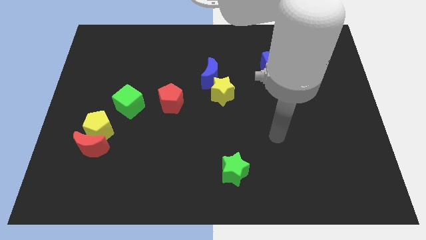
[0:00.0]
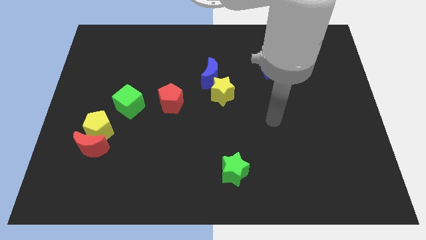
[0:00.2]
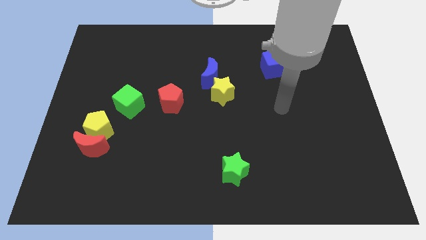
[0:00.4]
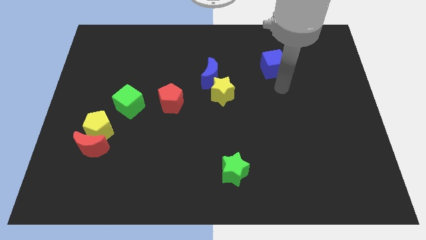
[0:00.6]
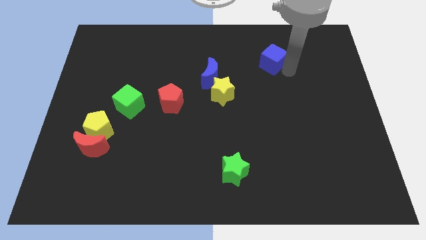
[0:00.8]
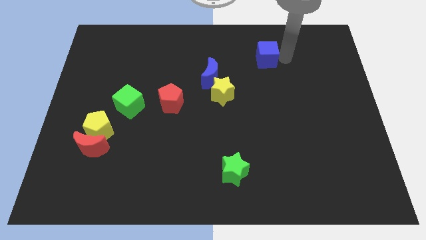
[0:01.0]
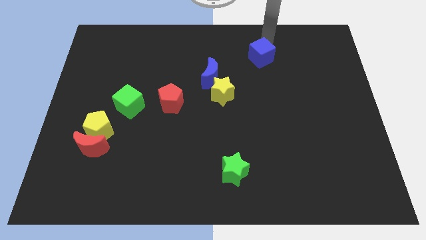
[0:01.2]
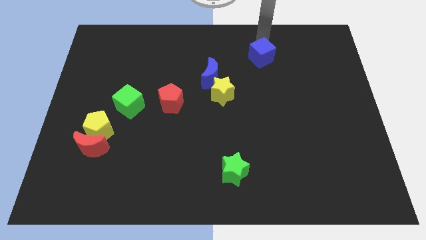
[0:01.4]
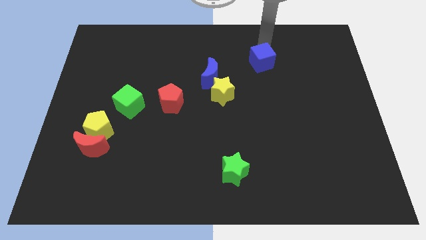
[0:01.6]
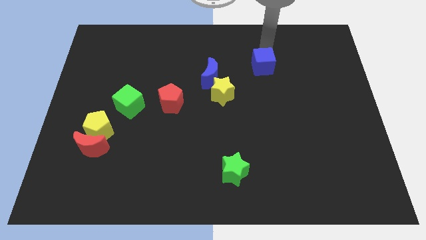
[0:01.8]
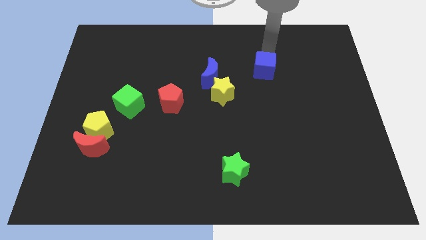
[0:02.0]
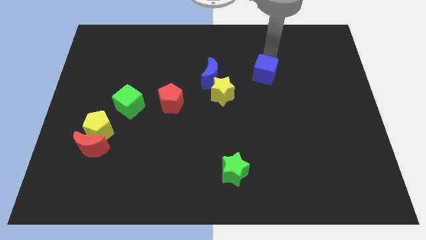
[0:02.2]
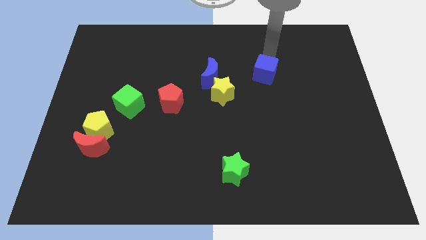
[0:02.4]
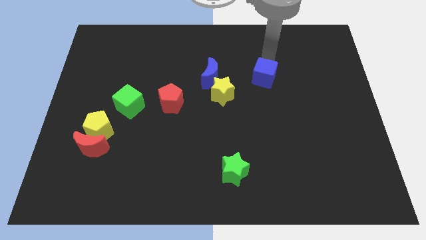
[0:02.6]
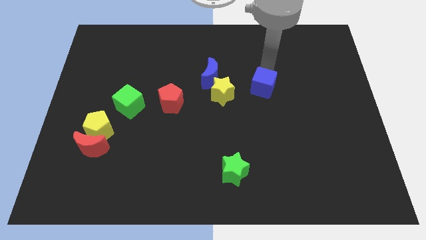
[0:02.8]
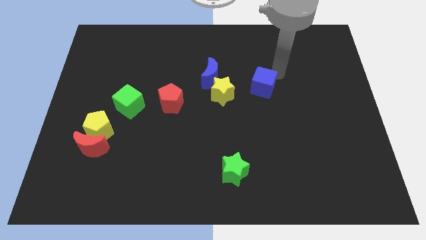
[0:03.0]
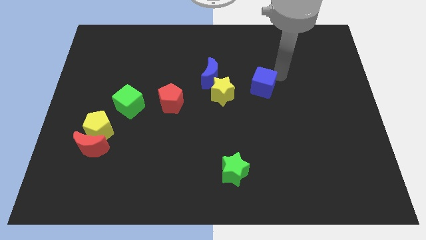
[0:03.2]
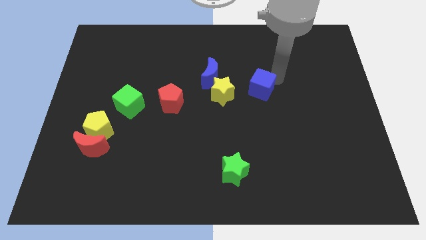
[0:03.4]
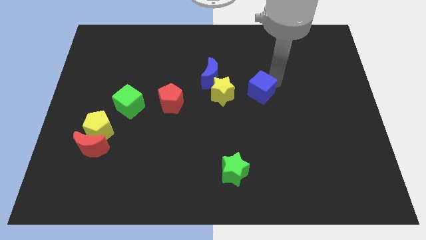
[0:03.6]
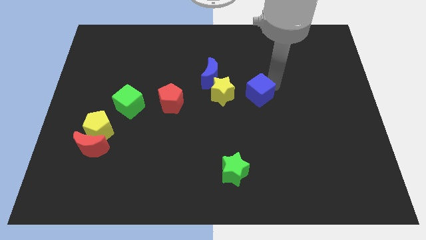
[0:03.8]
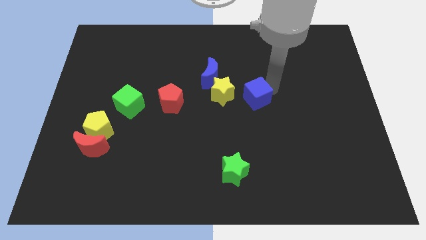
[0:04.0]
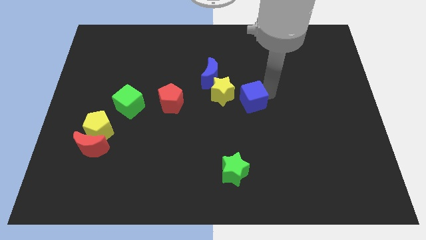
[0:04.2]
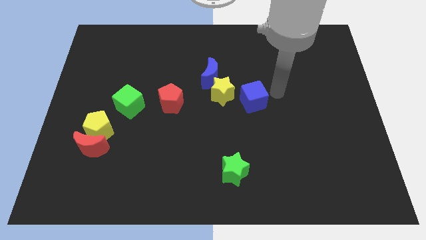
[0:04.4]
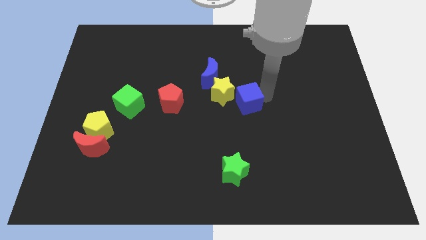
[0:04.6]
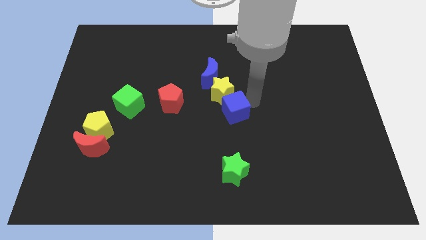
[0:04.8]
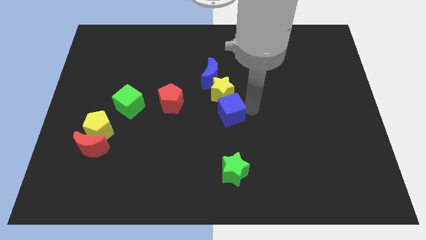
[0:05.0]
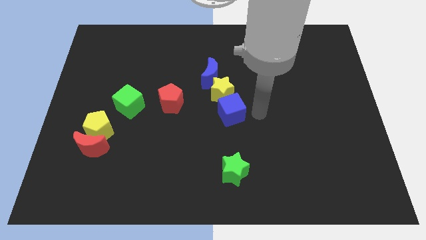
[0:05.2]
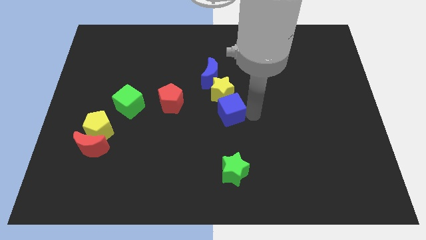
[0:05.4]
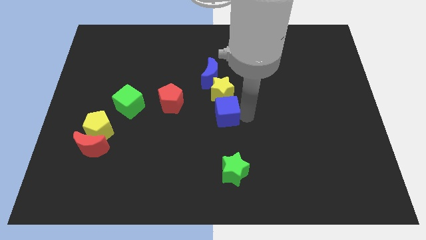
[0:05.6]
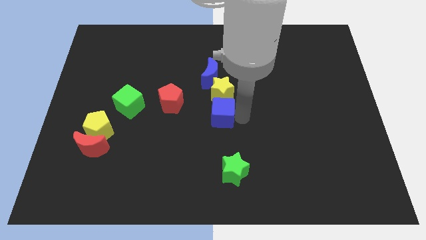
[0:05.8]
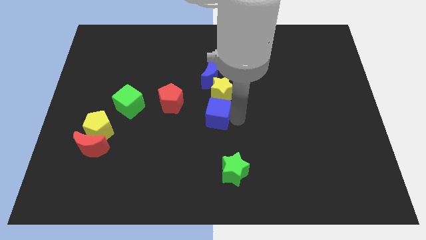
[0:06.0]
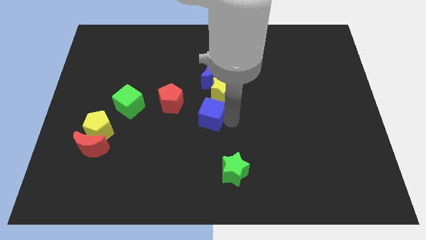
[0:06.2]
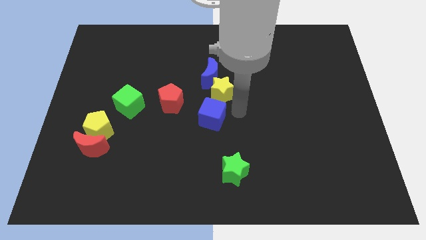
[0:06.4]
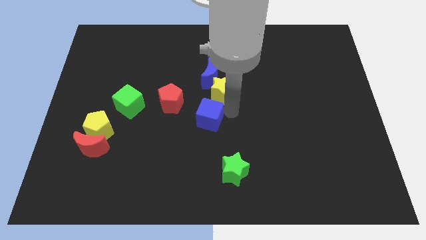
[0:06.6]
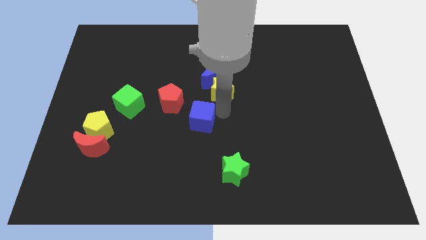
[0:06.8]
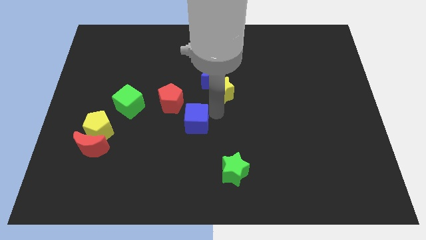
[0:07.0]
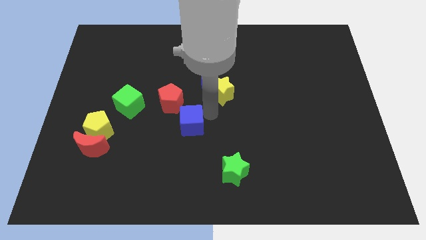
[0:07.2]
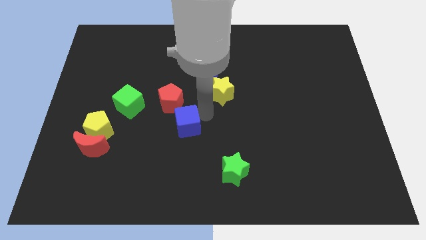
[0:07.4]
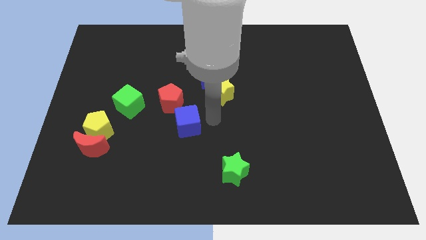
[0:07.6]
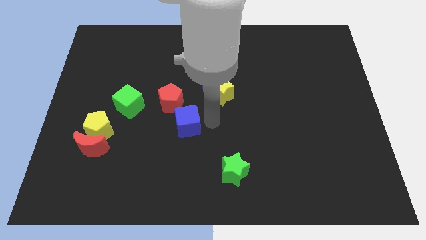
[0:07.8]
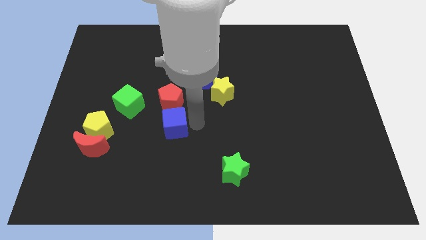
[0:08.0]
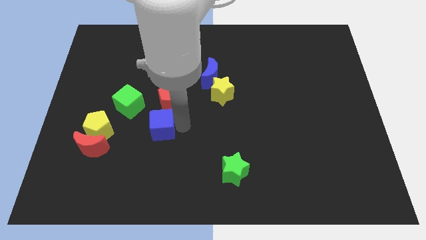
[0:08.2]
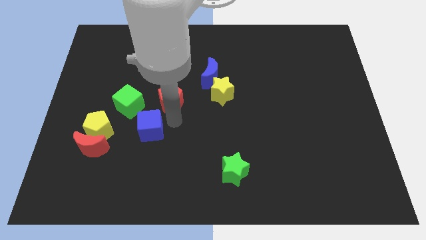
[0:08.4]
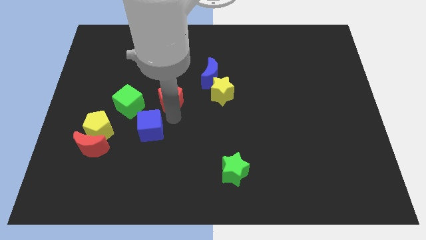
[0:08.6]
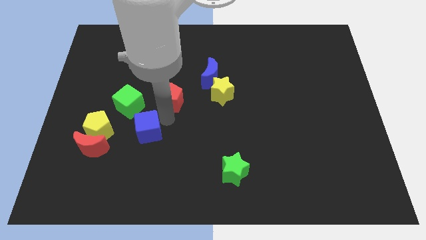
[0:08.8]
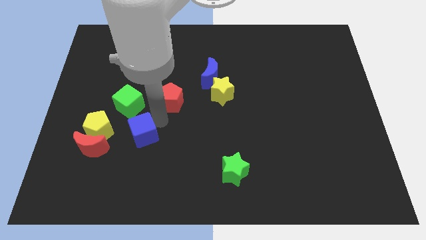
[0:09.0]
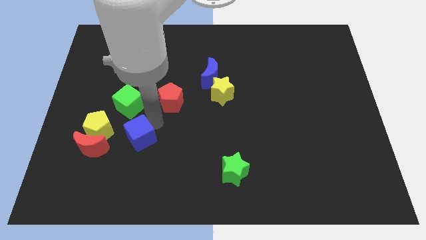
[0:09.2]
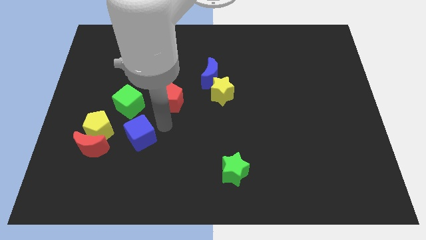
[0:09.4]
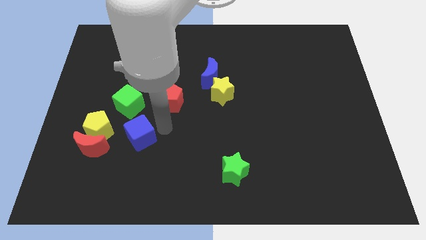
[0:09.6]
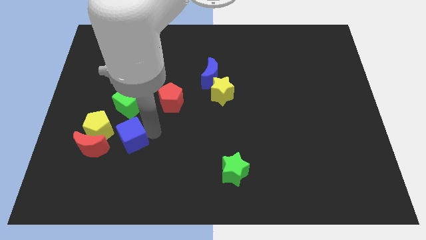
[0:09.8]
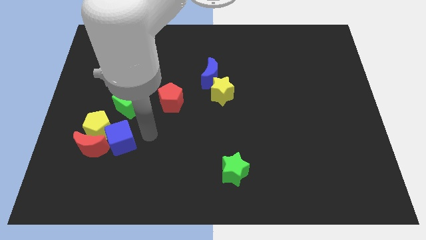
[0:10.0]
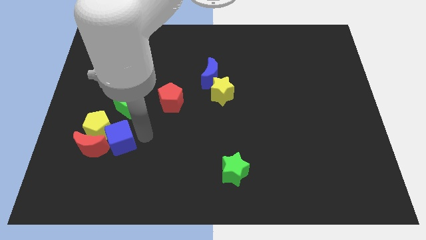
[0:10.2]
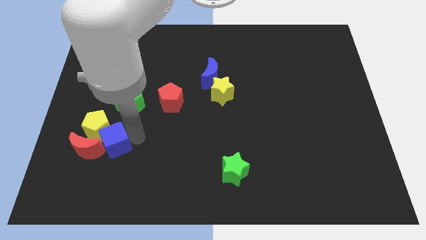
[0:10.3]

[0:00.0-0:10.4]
move the blue cube towards the red moon

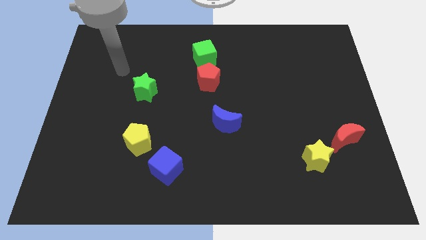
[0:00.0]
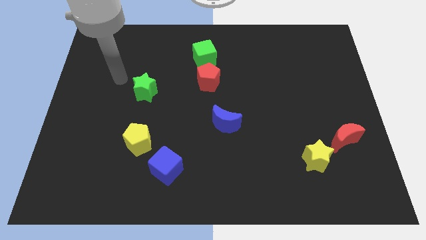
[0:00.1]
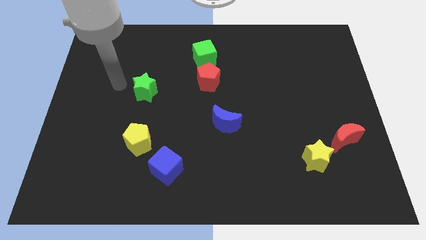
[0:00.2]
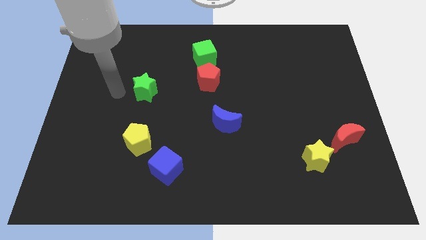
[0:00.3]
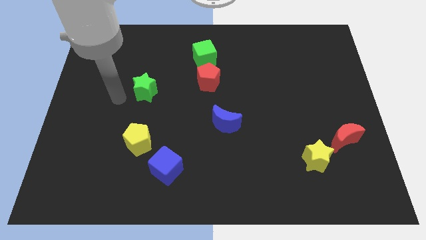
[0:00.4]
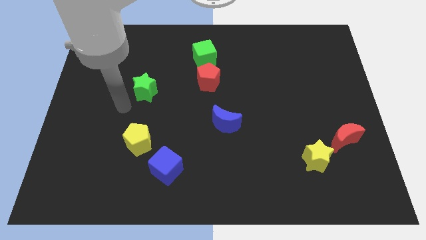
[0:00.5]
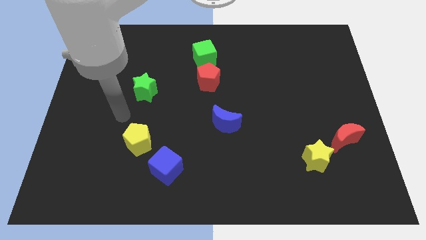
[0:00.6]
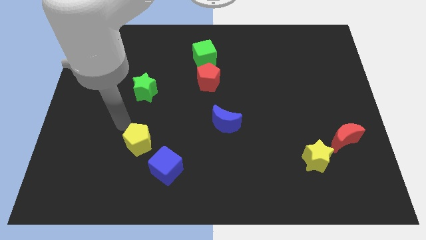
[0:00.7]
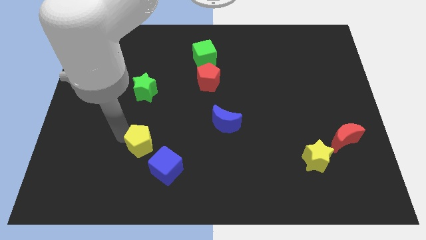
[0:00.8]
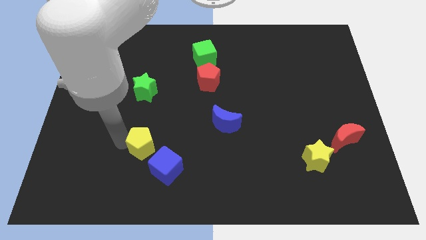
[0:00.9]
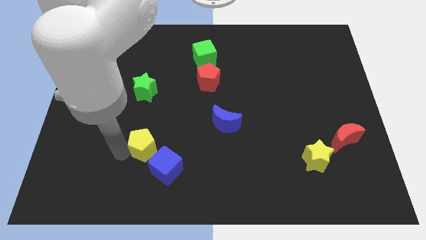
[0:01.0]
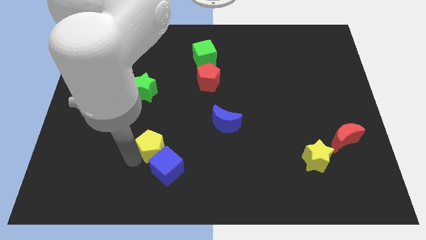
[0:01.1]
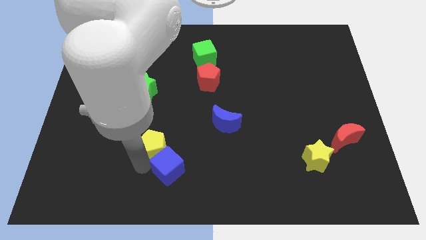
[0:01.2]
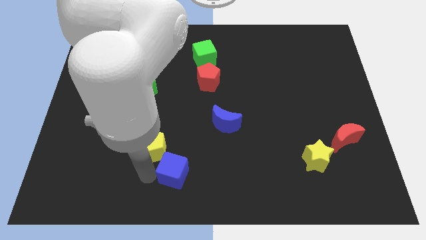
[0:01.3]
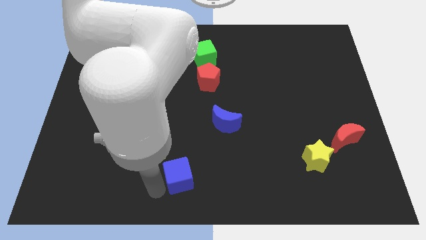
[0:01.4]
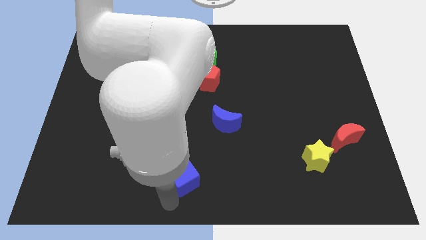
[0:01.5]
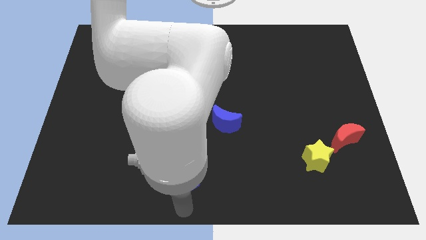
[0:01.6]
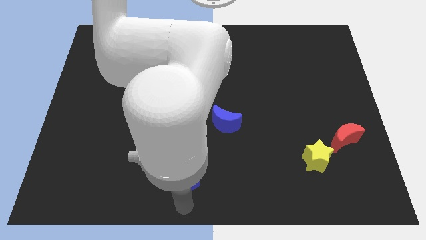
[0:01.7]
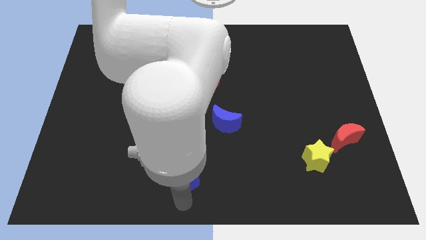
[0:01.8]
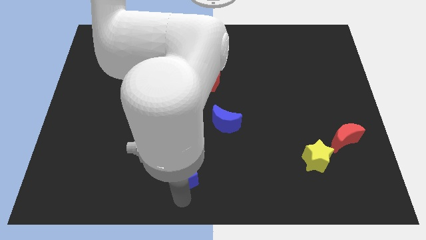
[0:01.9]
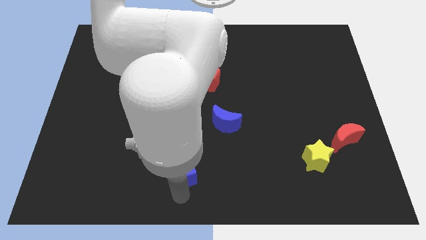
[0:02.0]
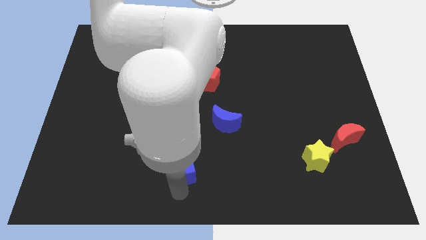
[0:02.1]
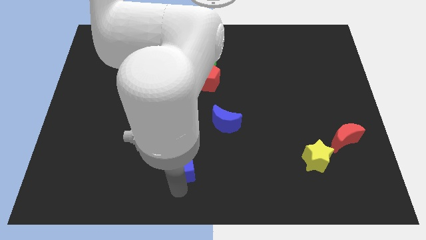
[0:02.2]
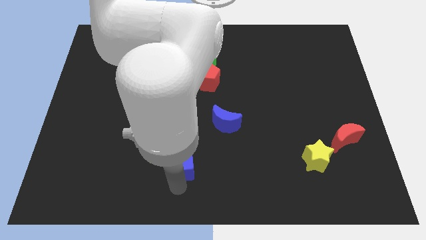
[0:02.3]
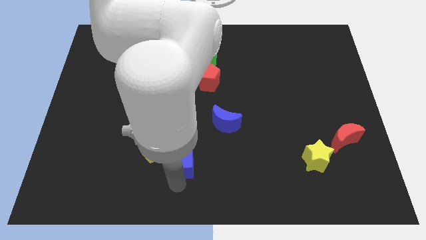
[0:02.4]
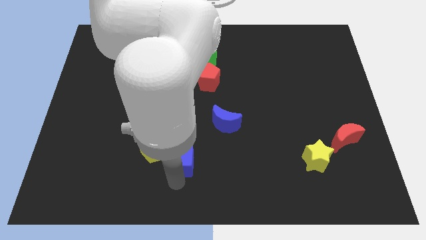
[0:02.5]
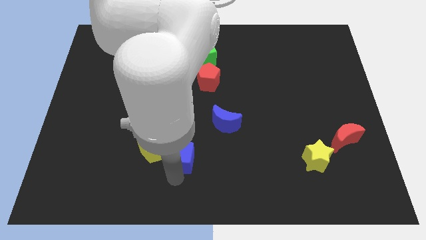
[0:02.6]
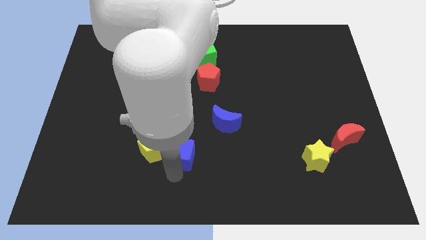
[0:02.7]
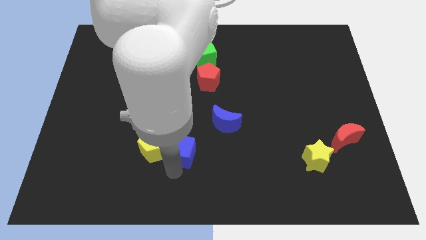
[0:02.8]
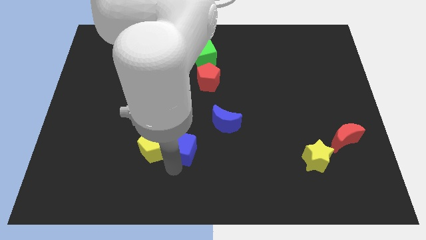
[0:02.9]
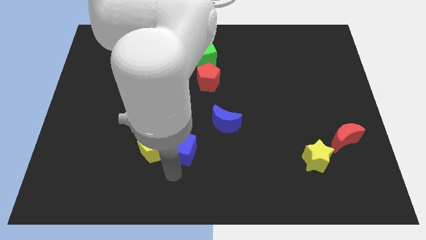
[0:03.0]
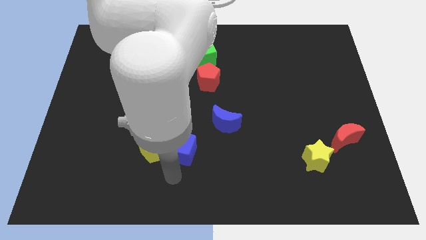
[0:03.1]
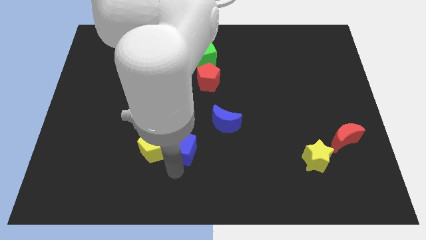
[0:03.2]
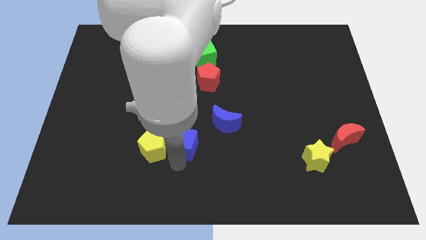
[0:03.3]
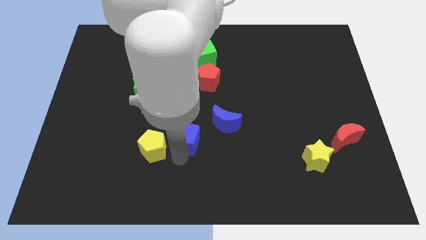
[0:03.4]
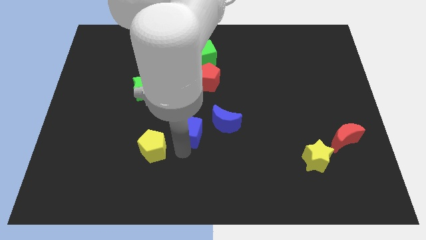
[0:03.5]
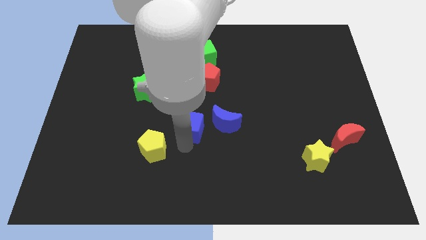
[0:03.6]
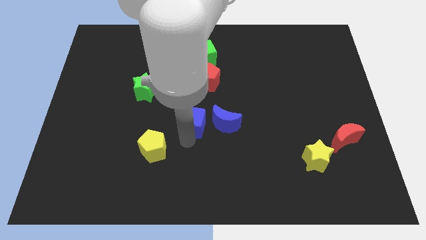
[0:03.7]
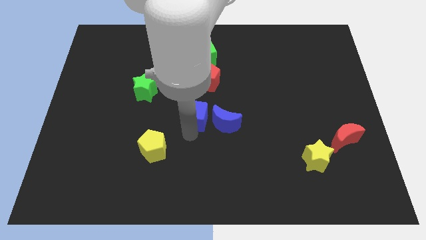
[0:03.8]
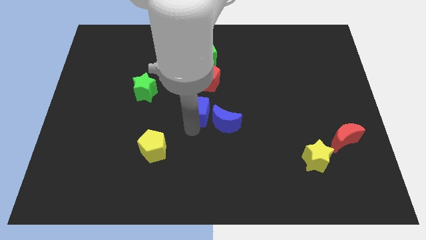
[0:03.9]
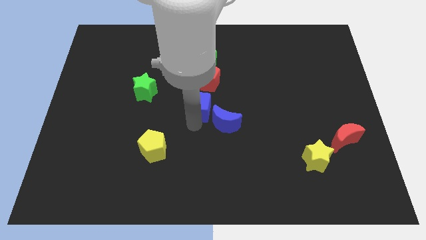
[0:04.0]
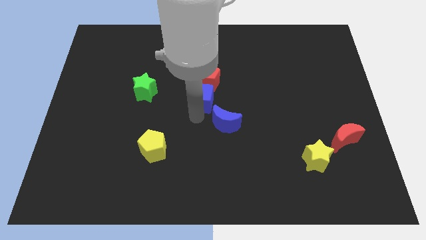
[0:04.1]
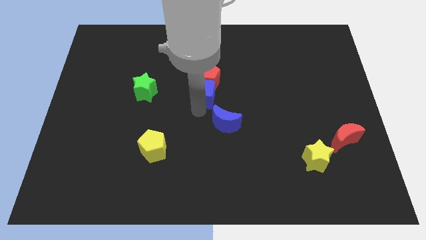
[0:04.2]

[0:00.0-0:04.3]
push the blue cube towards the red pentagon
